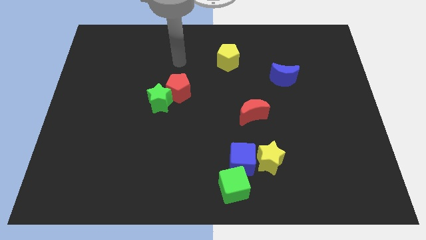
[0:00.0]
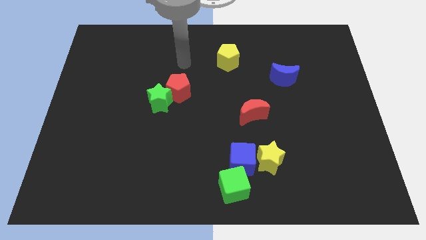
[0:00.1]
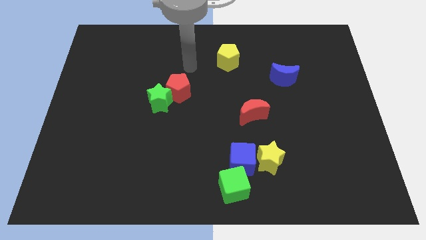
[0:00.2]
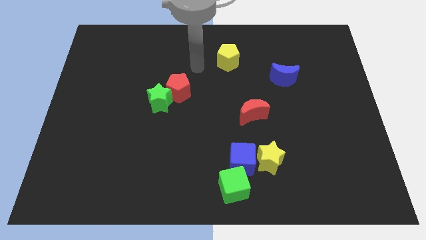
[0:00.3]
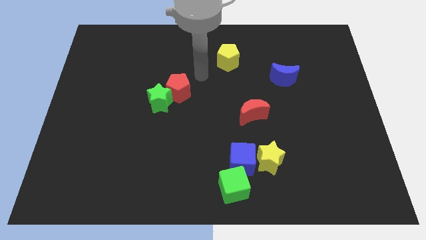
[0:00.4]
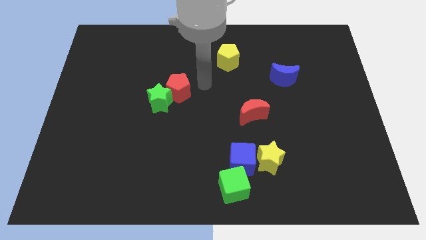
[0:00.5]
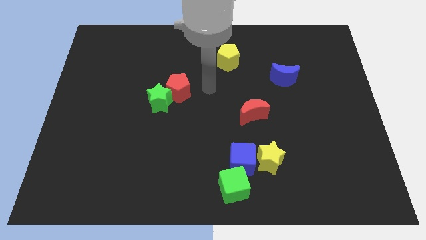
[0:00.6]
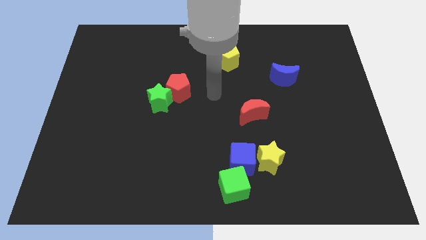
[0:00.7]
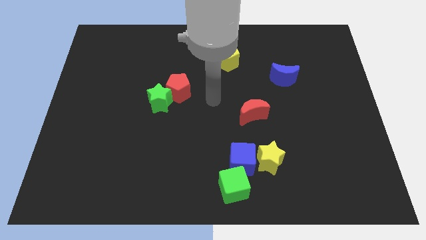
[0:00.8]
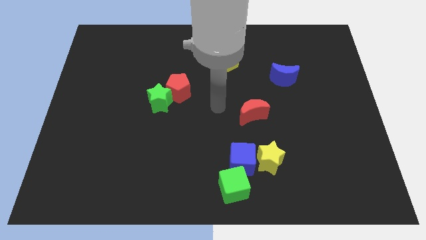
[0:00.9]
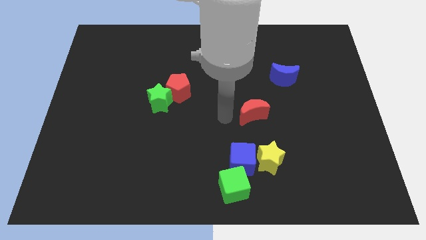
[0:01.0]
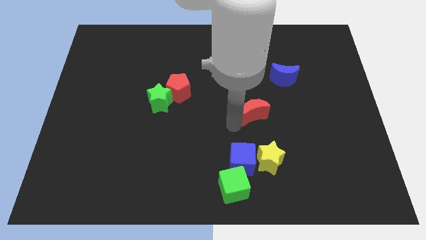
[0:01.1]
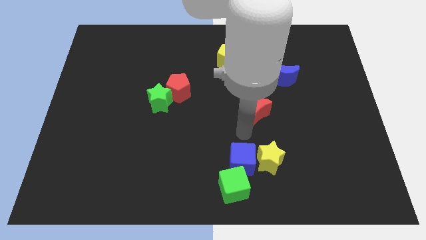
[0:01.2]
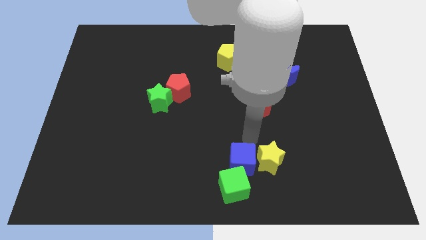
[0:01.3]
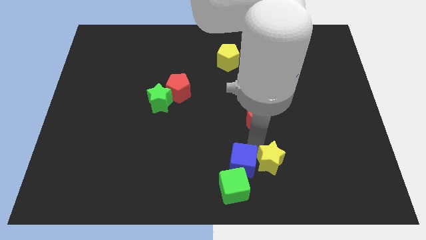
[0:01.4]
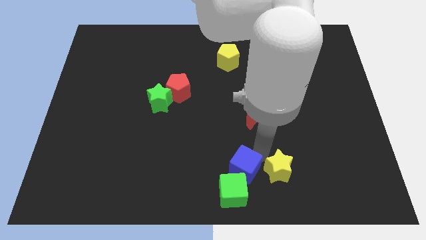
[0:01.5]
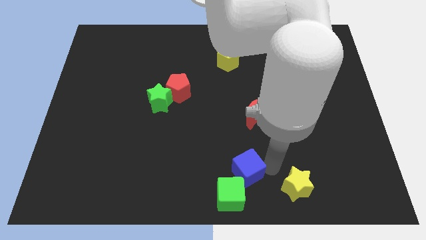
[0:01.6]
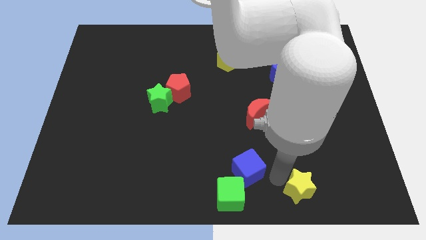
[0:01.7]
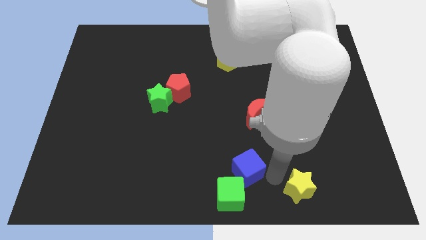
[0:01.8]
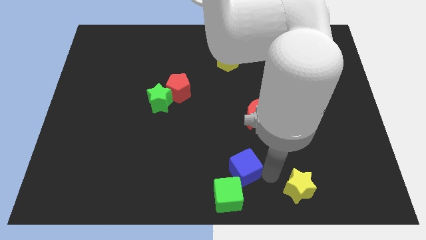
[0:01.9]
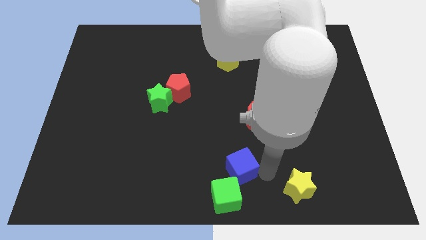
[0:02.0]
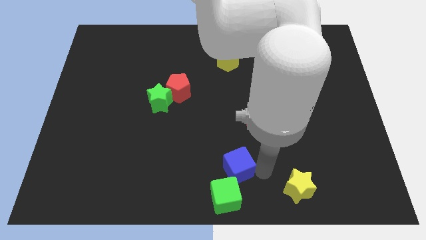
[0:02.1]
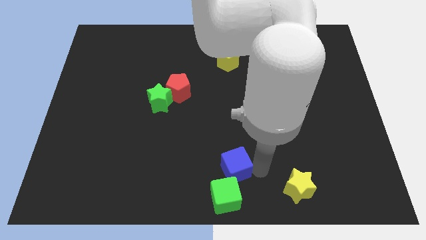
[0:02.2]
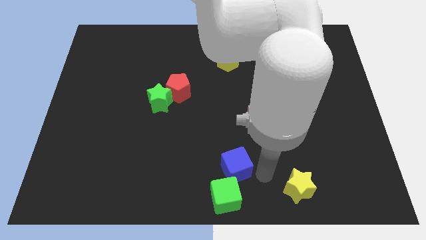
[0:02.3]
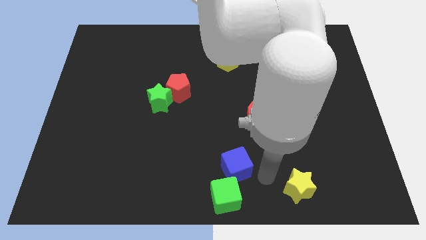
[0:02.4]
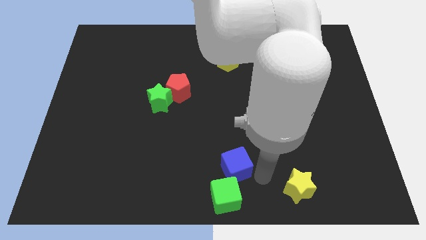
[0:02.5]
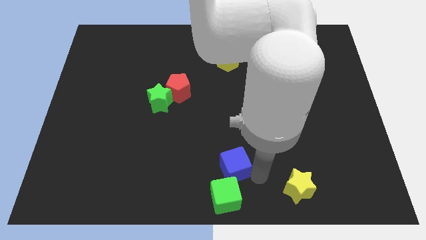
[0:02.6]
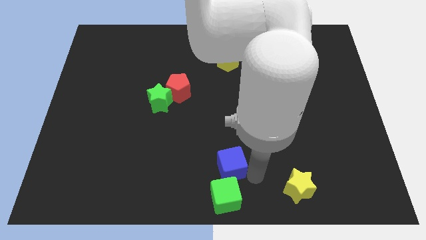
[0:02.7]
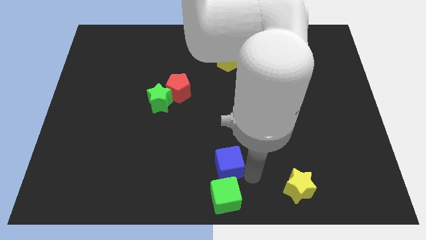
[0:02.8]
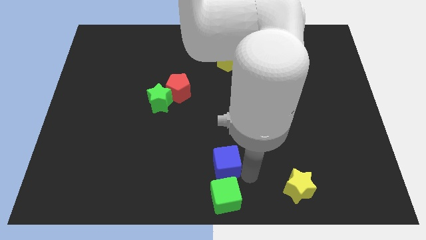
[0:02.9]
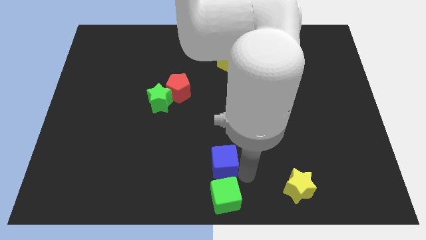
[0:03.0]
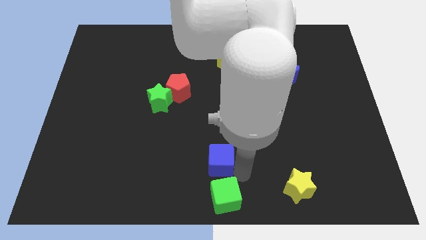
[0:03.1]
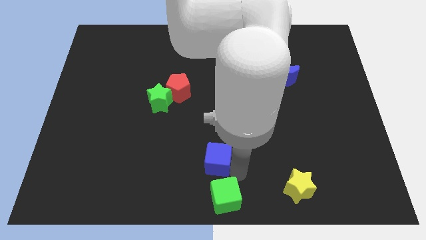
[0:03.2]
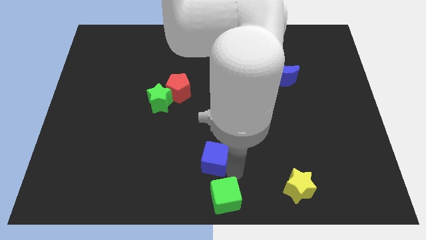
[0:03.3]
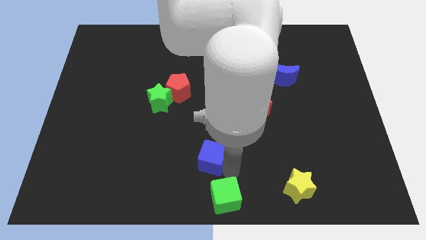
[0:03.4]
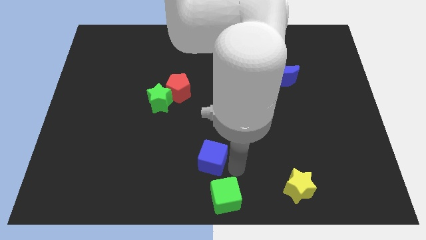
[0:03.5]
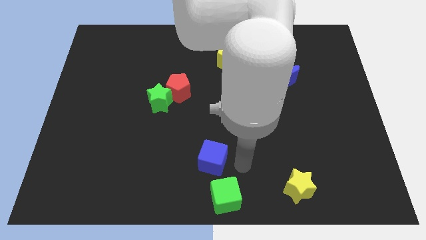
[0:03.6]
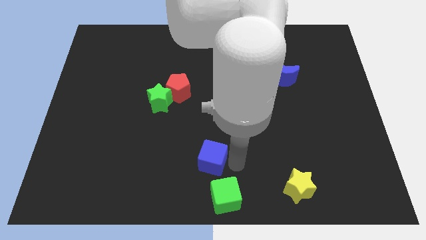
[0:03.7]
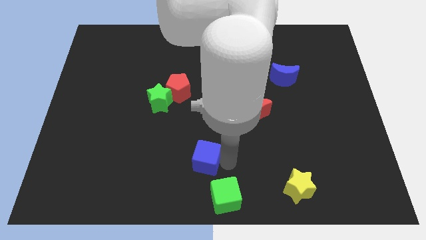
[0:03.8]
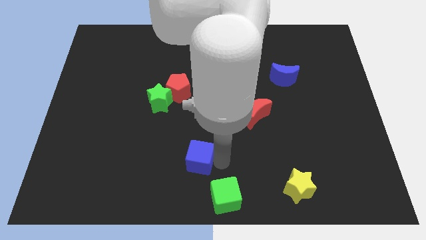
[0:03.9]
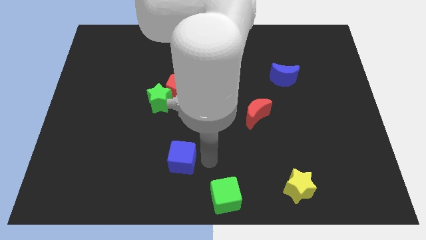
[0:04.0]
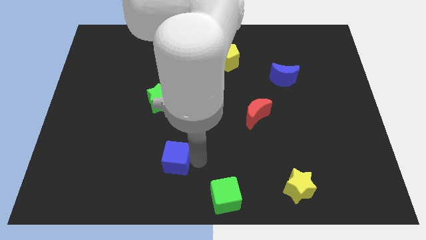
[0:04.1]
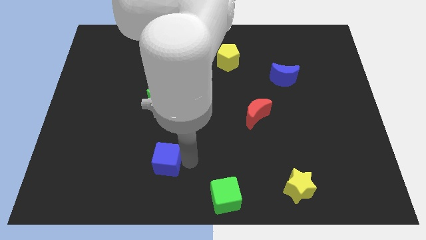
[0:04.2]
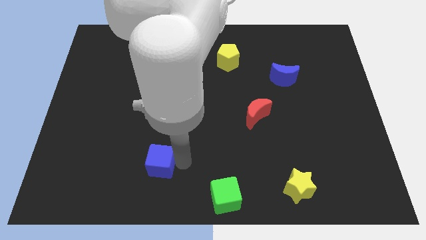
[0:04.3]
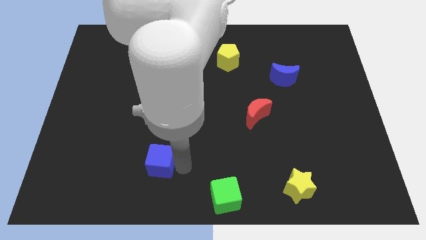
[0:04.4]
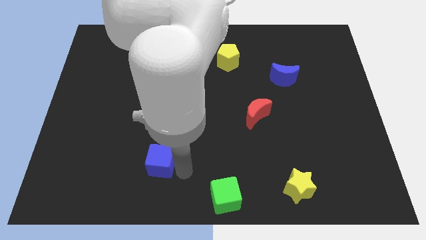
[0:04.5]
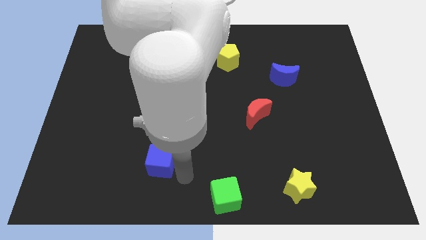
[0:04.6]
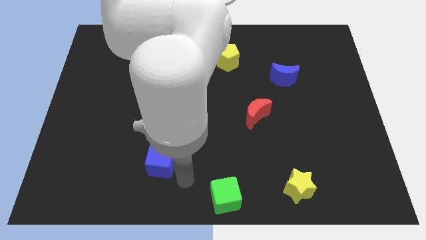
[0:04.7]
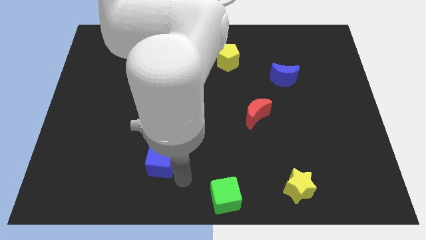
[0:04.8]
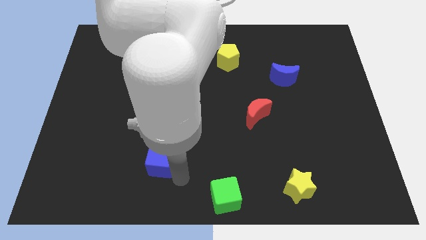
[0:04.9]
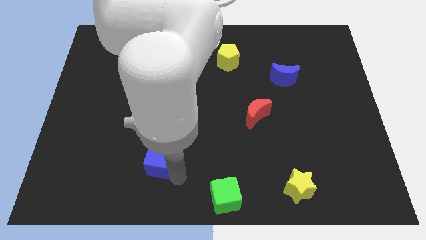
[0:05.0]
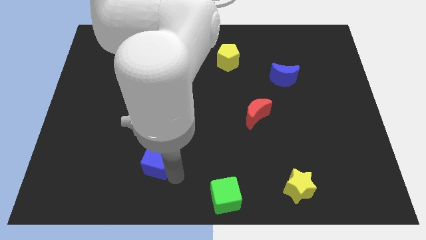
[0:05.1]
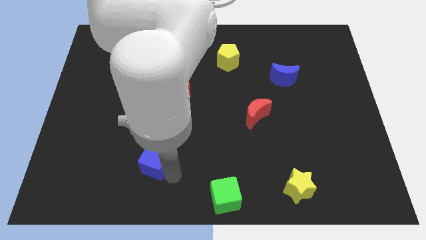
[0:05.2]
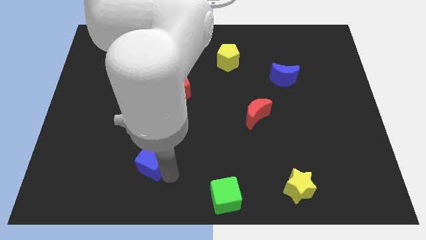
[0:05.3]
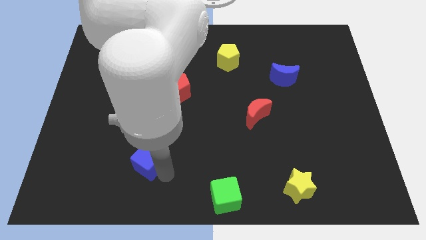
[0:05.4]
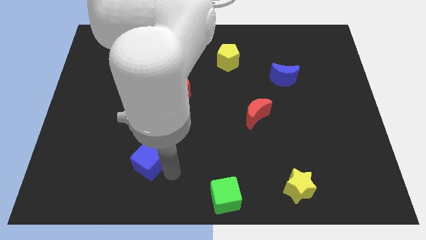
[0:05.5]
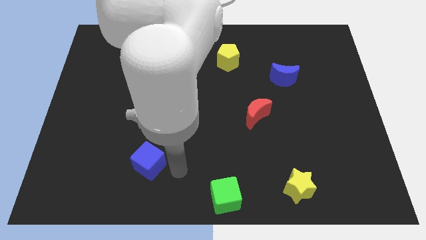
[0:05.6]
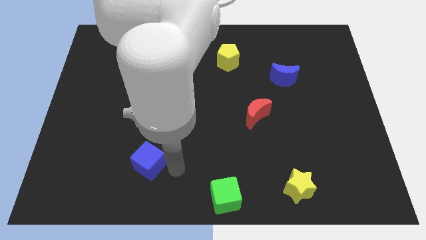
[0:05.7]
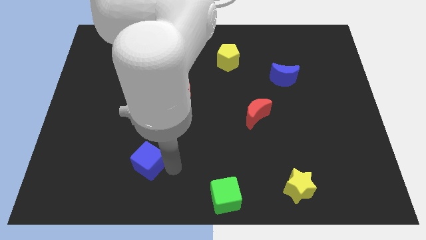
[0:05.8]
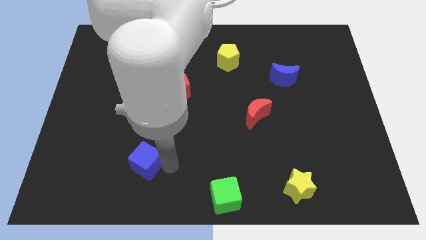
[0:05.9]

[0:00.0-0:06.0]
slide the blue cube to the left

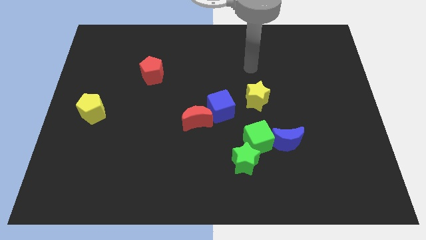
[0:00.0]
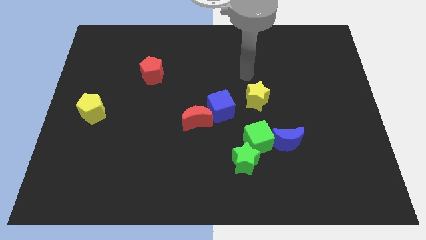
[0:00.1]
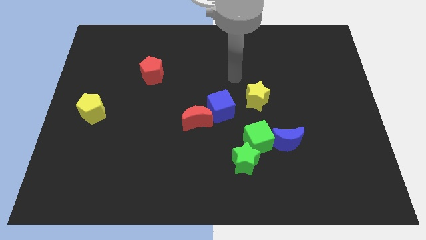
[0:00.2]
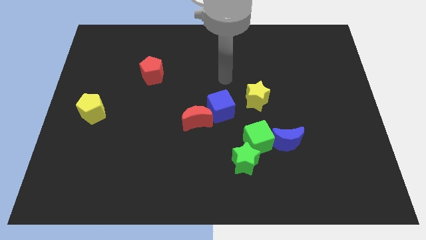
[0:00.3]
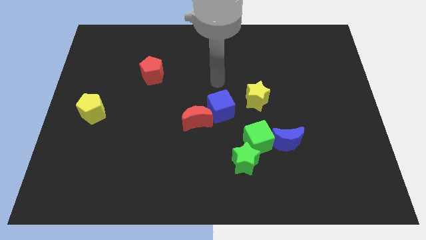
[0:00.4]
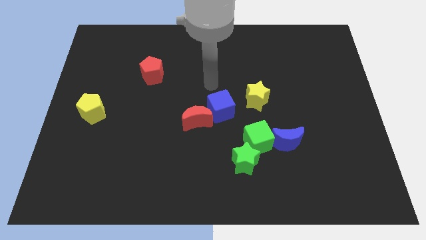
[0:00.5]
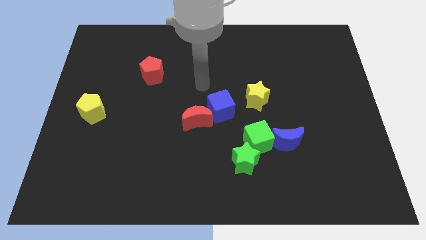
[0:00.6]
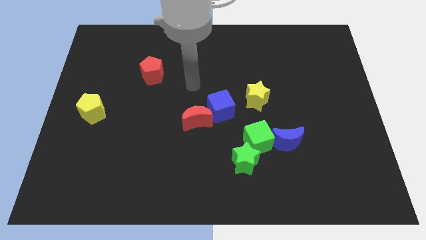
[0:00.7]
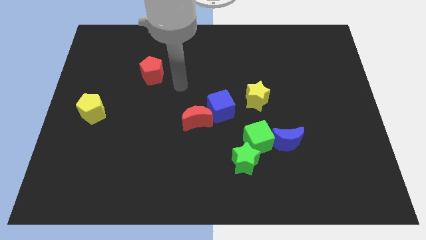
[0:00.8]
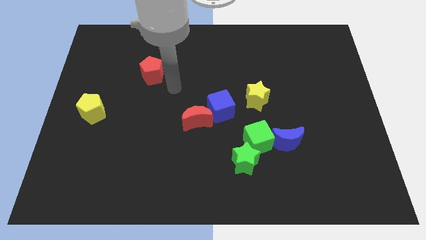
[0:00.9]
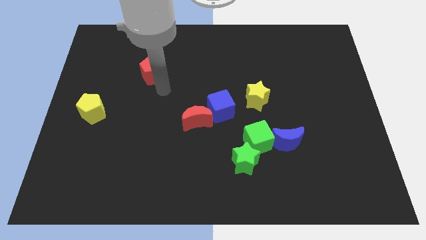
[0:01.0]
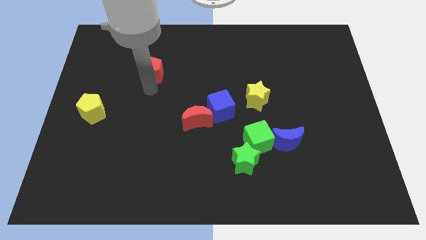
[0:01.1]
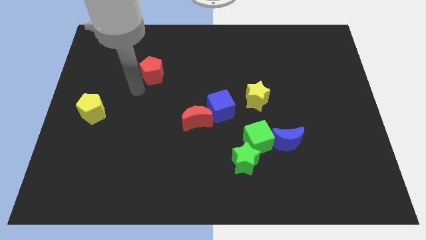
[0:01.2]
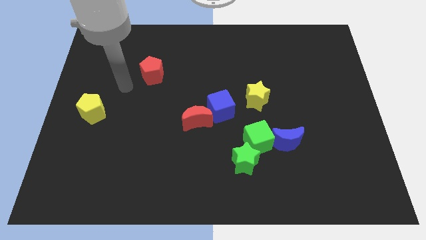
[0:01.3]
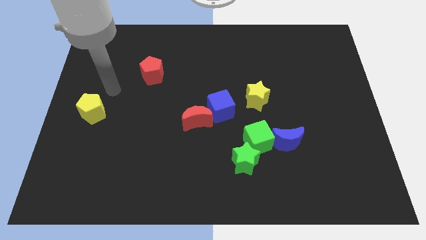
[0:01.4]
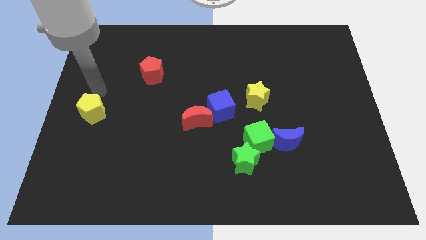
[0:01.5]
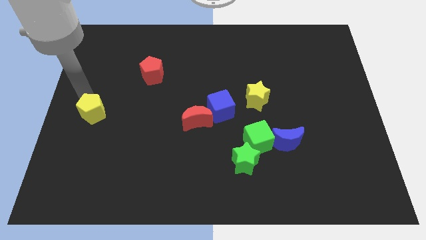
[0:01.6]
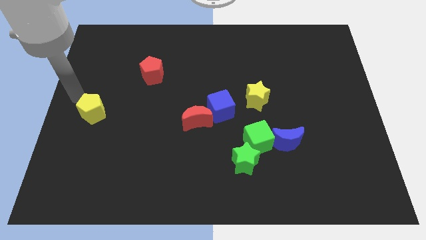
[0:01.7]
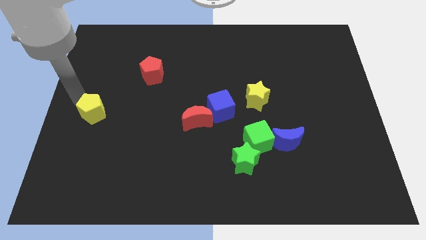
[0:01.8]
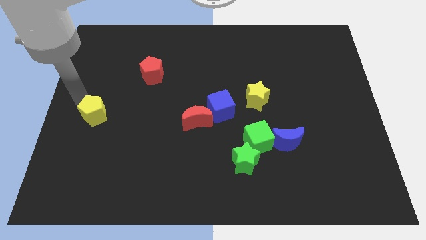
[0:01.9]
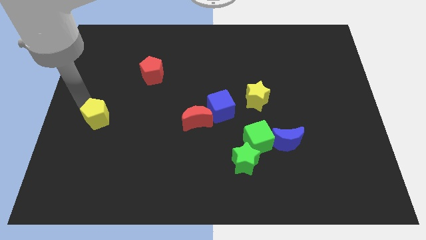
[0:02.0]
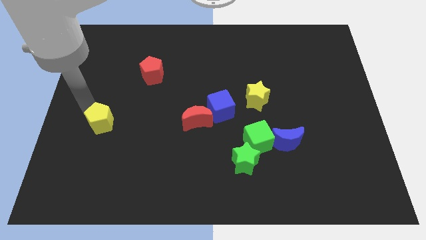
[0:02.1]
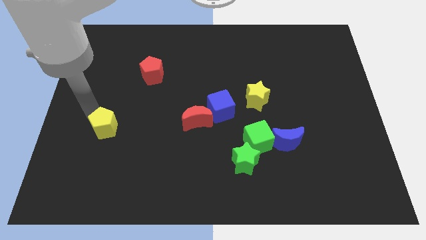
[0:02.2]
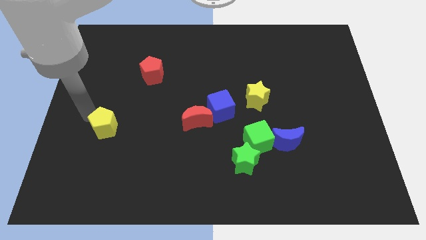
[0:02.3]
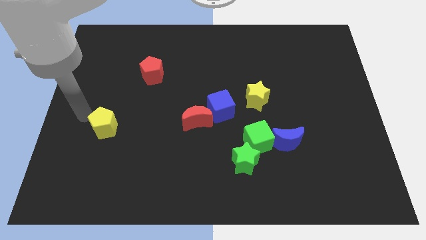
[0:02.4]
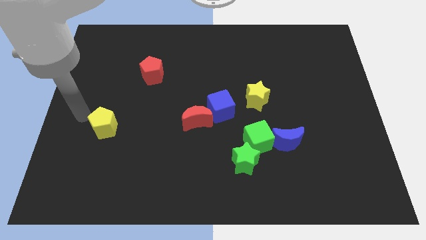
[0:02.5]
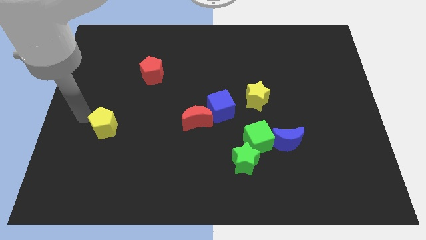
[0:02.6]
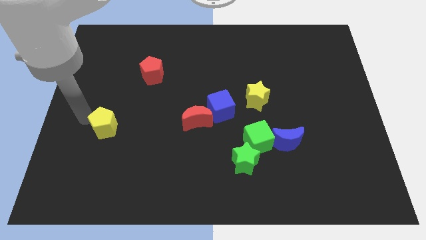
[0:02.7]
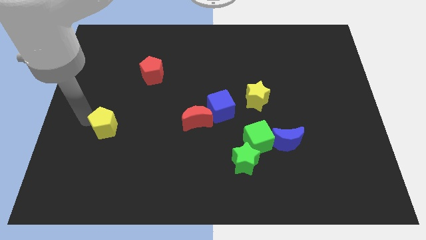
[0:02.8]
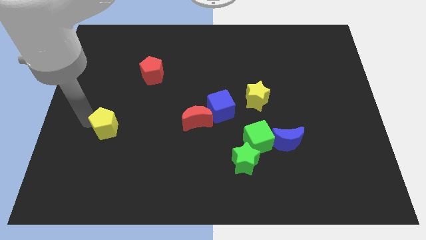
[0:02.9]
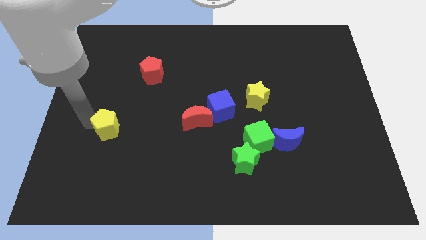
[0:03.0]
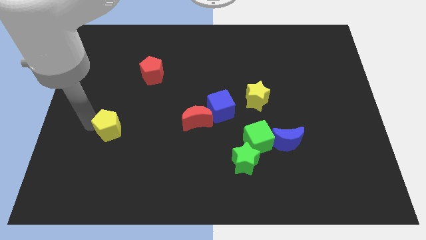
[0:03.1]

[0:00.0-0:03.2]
slide the yellow pentagon downwards and then right a little bit
